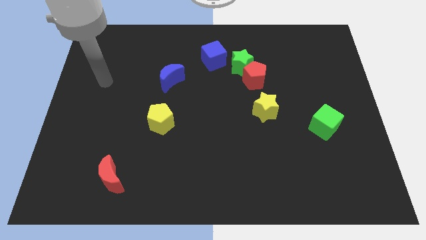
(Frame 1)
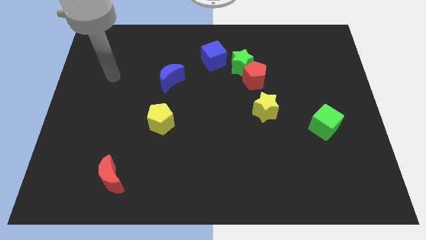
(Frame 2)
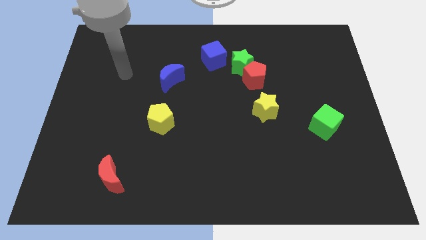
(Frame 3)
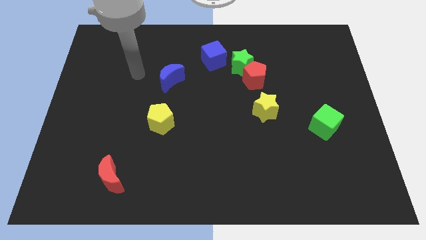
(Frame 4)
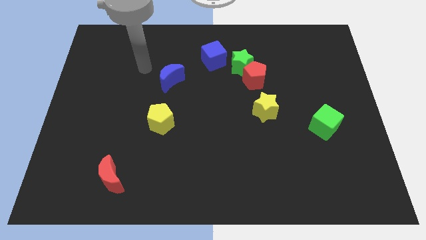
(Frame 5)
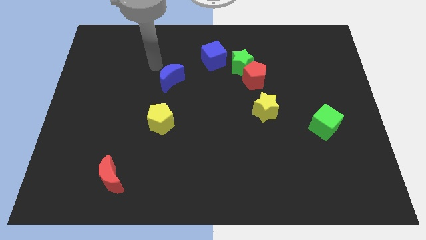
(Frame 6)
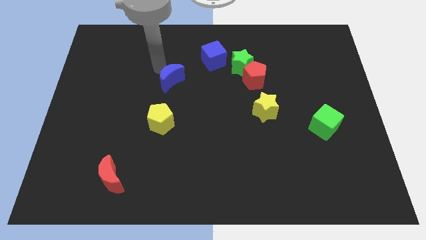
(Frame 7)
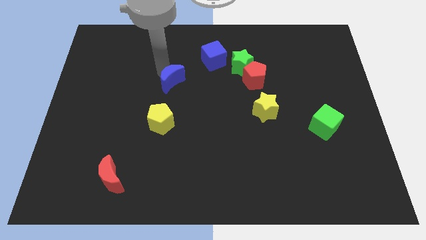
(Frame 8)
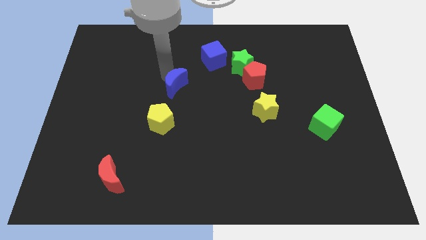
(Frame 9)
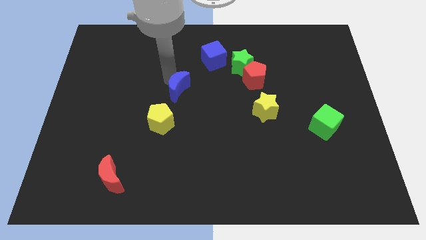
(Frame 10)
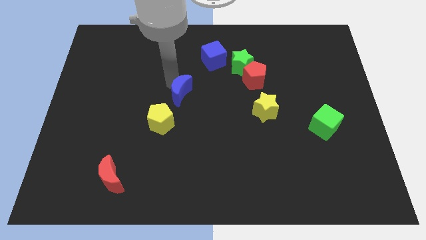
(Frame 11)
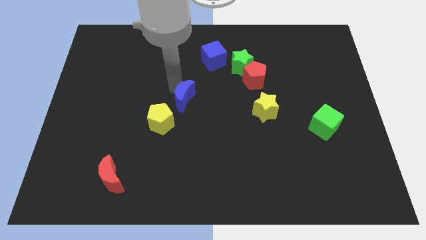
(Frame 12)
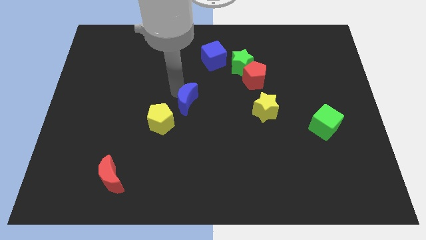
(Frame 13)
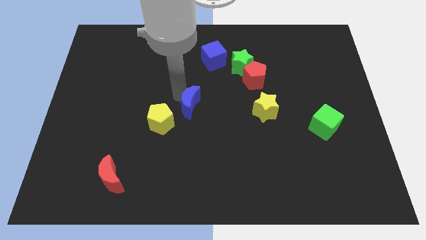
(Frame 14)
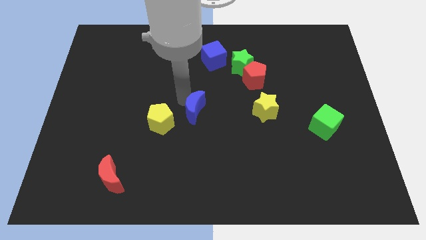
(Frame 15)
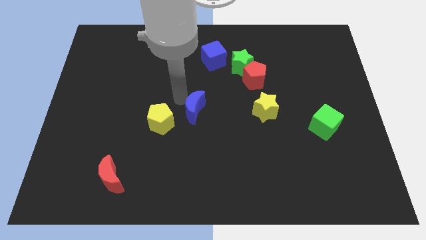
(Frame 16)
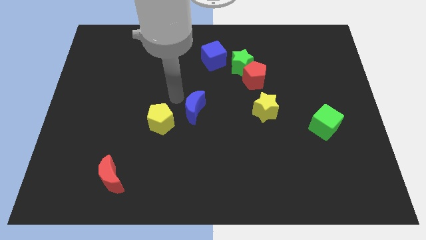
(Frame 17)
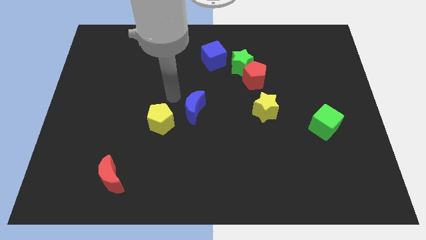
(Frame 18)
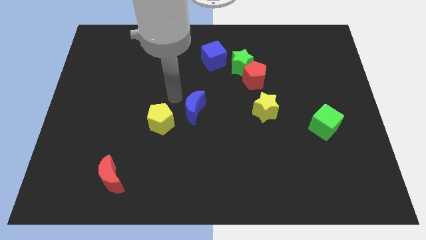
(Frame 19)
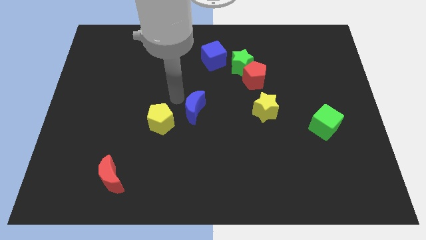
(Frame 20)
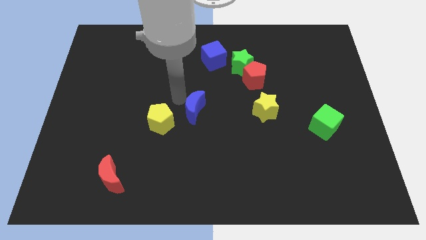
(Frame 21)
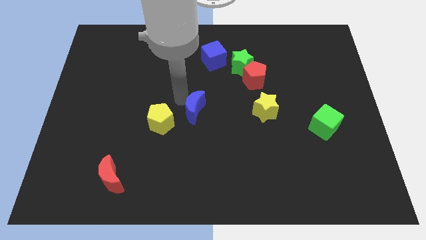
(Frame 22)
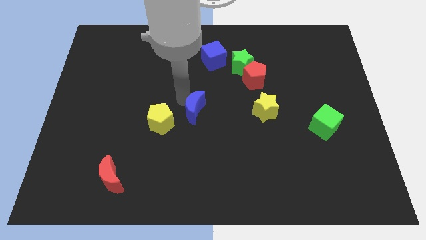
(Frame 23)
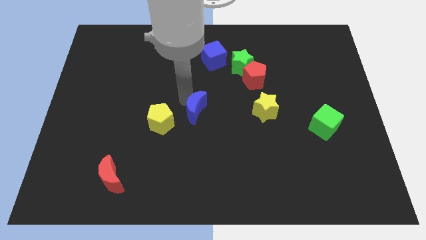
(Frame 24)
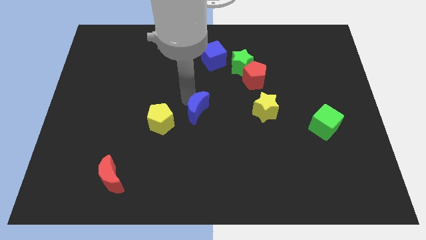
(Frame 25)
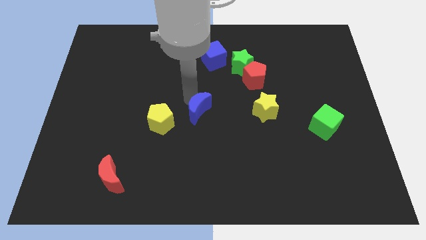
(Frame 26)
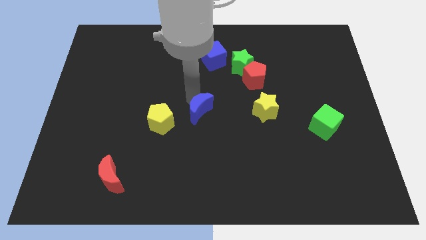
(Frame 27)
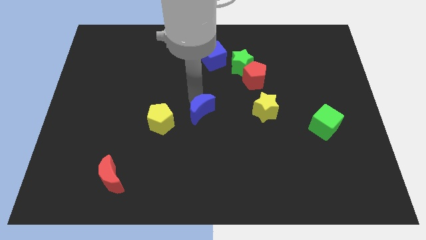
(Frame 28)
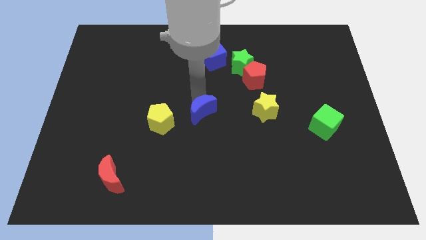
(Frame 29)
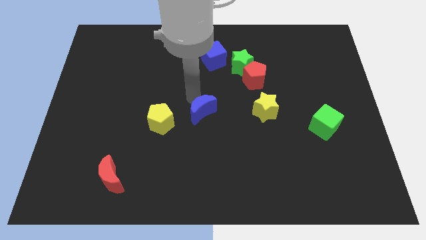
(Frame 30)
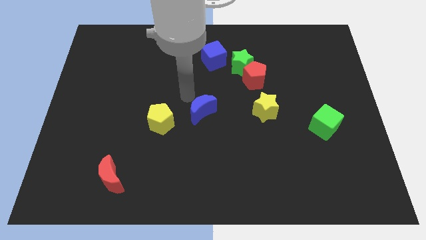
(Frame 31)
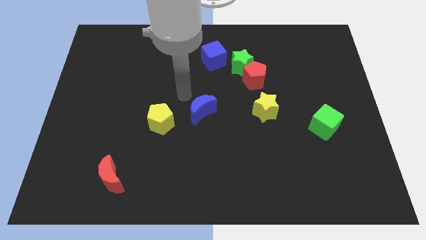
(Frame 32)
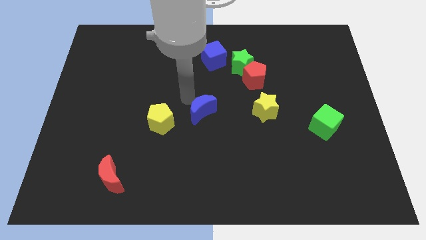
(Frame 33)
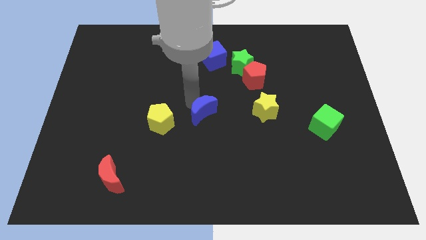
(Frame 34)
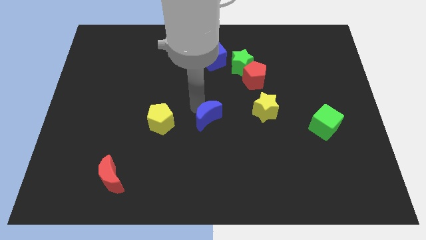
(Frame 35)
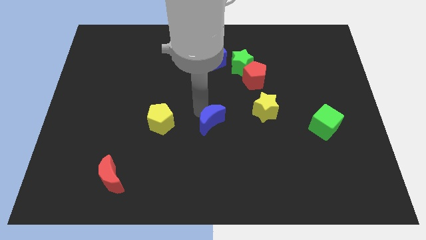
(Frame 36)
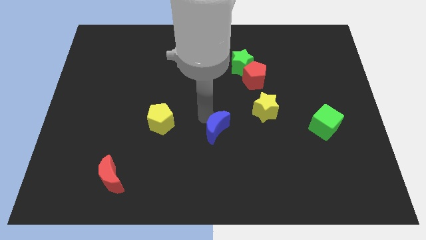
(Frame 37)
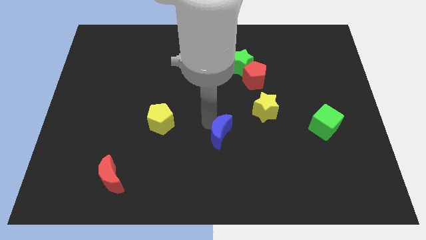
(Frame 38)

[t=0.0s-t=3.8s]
push the blue moon downwards and to the right

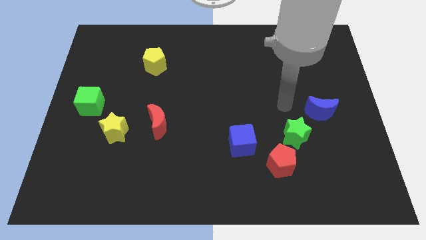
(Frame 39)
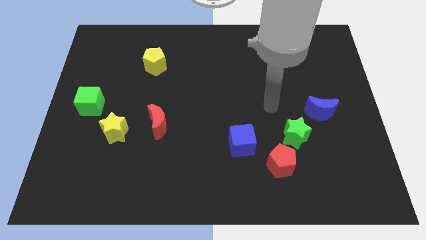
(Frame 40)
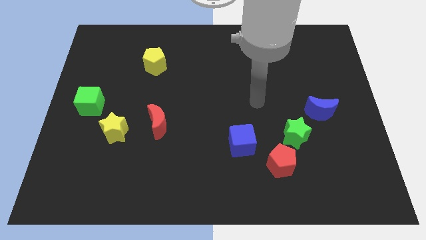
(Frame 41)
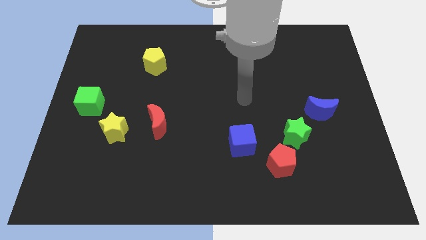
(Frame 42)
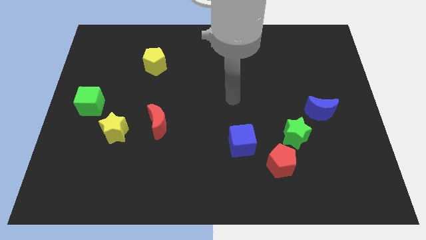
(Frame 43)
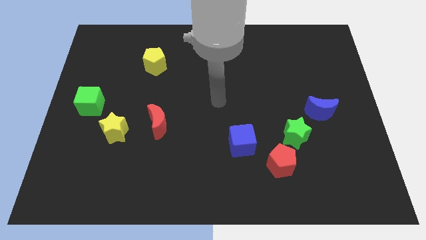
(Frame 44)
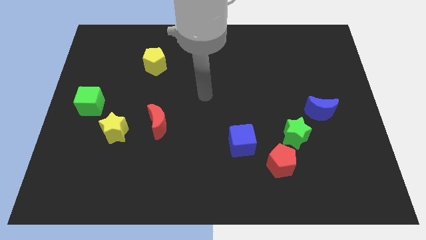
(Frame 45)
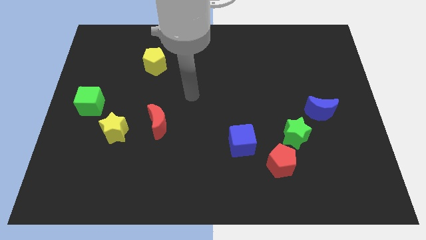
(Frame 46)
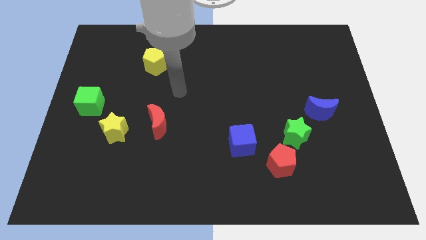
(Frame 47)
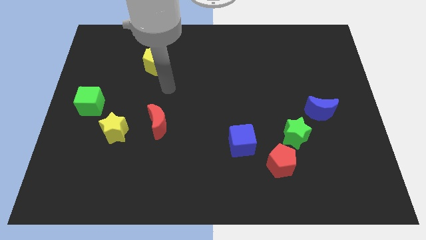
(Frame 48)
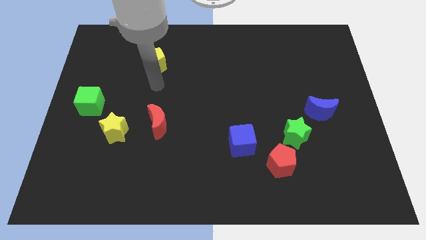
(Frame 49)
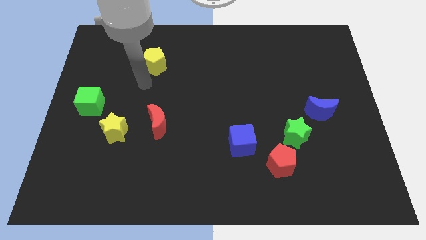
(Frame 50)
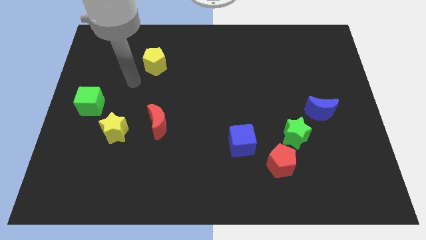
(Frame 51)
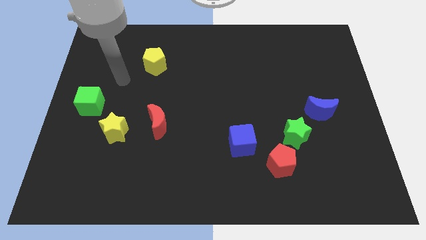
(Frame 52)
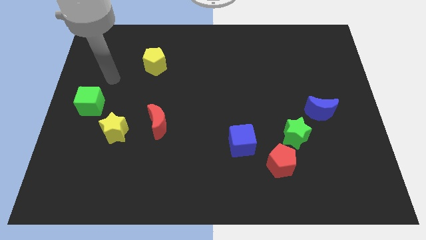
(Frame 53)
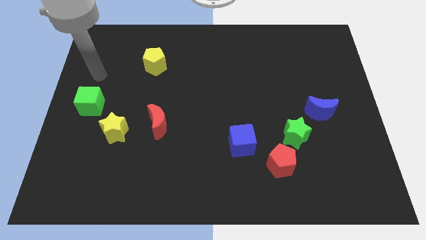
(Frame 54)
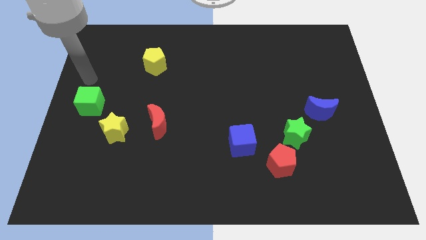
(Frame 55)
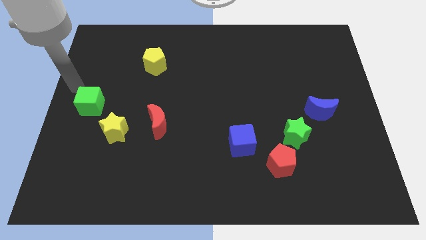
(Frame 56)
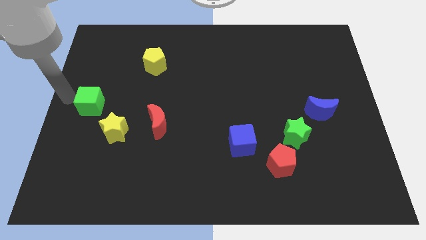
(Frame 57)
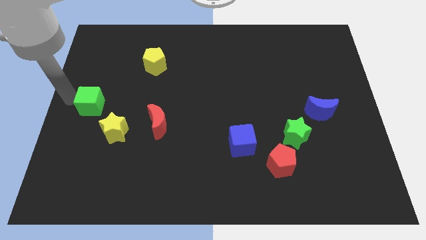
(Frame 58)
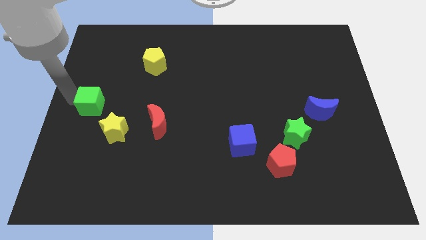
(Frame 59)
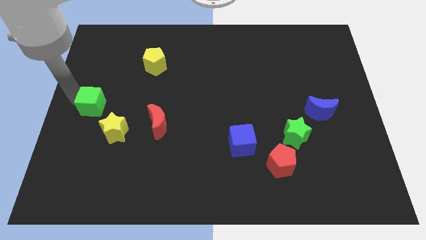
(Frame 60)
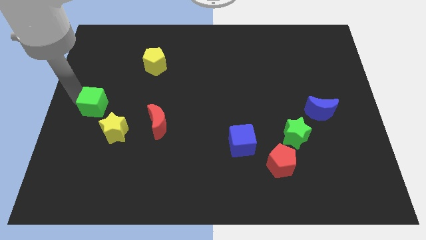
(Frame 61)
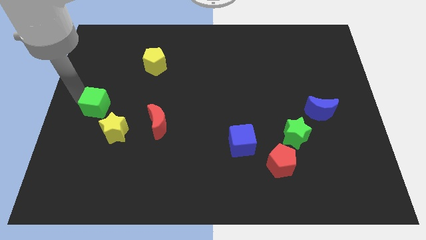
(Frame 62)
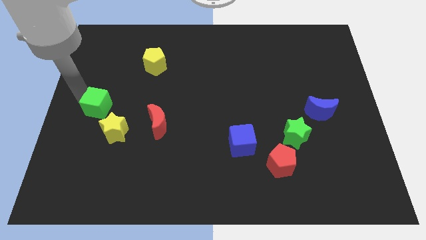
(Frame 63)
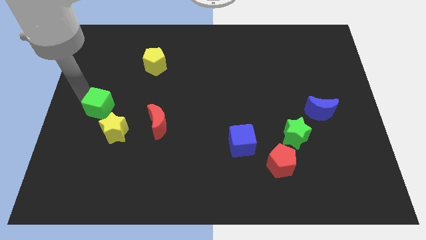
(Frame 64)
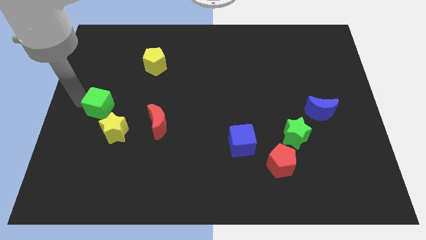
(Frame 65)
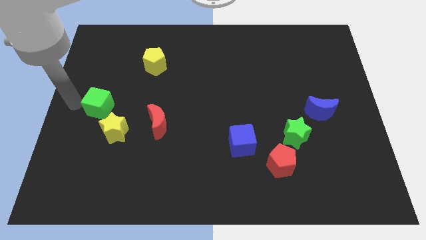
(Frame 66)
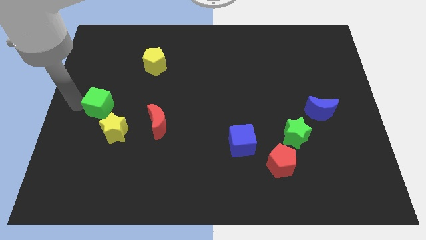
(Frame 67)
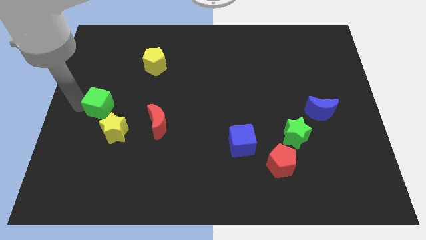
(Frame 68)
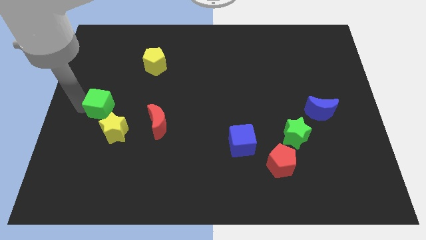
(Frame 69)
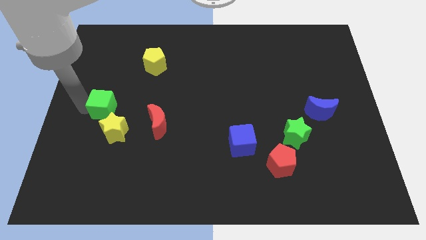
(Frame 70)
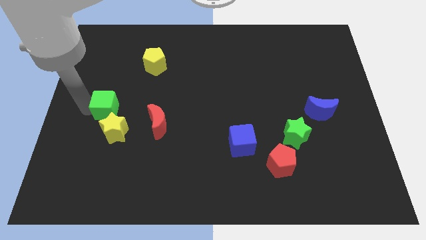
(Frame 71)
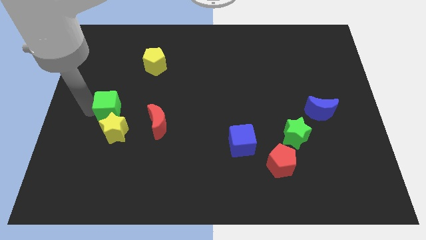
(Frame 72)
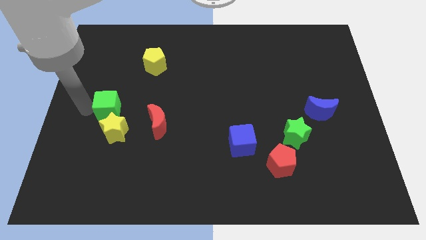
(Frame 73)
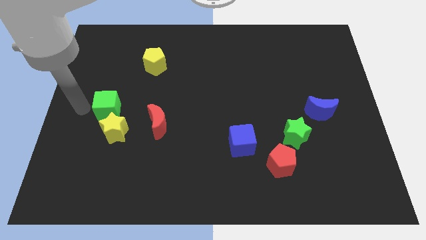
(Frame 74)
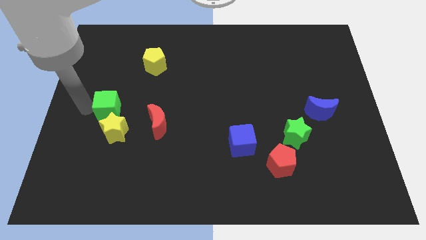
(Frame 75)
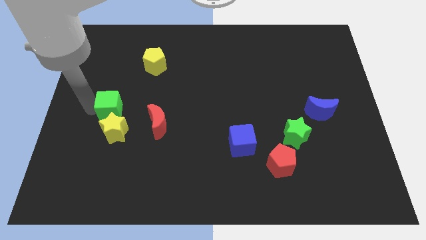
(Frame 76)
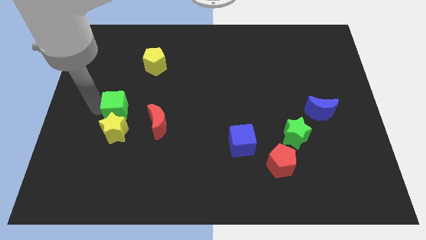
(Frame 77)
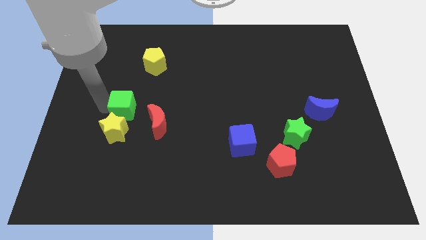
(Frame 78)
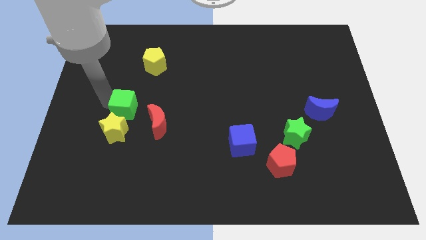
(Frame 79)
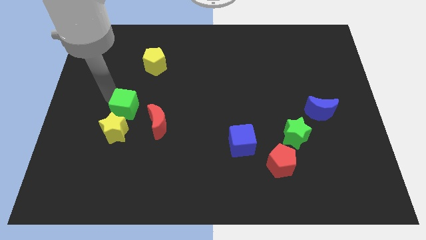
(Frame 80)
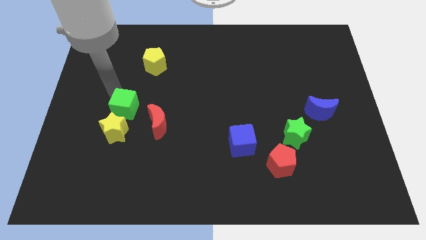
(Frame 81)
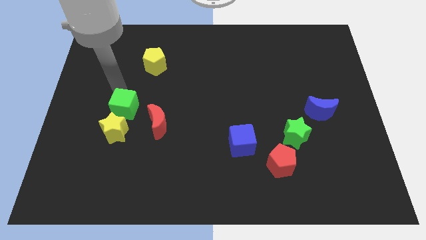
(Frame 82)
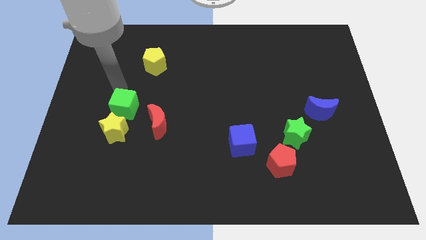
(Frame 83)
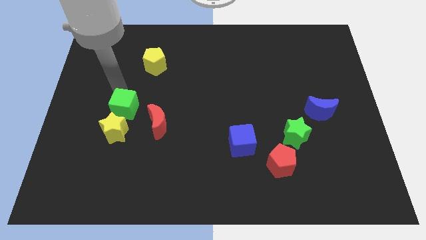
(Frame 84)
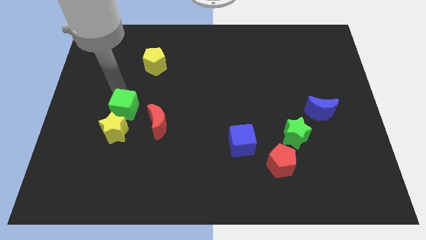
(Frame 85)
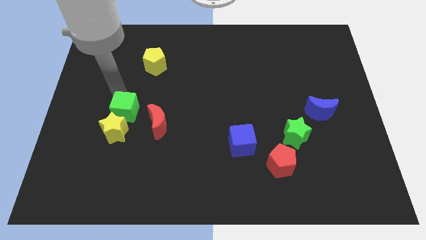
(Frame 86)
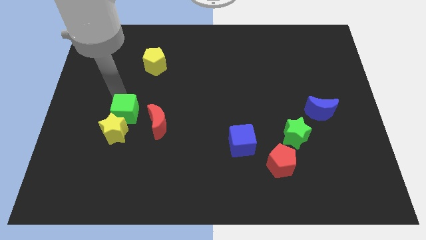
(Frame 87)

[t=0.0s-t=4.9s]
slightly push the green cube diagonally downwards and right
